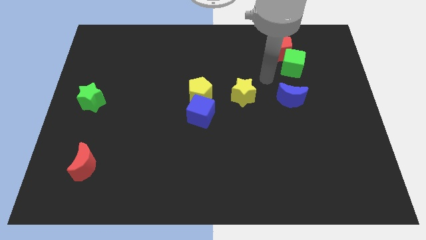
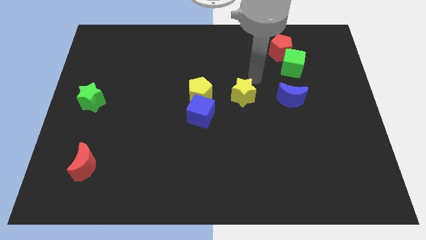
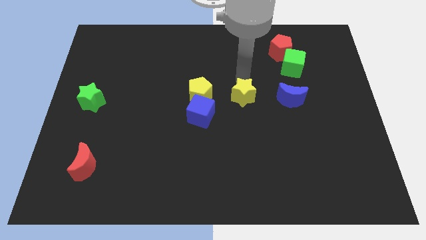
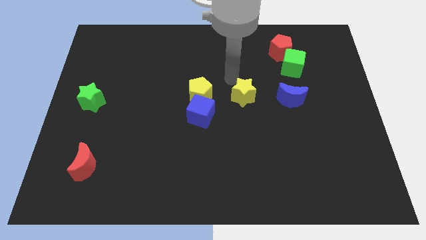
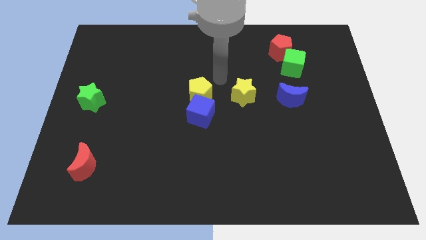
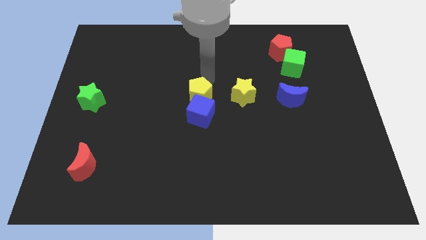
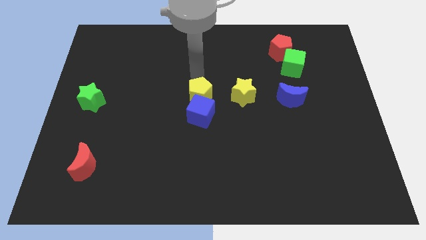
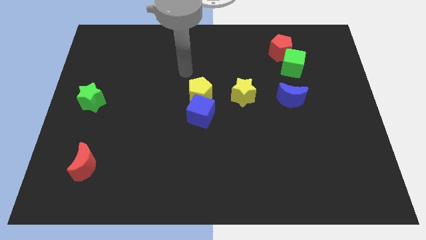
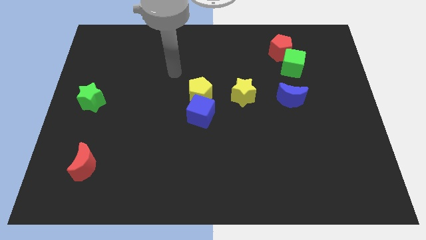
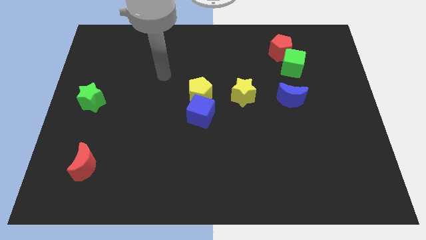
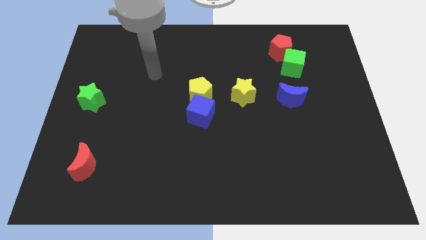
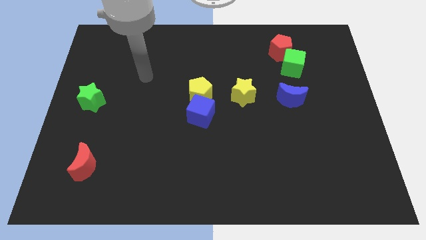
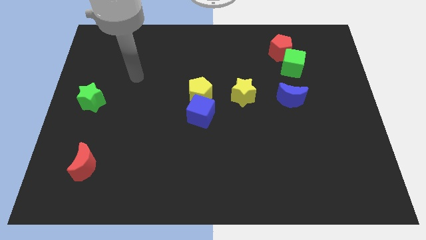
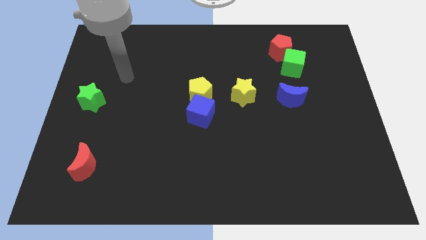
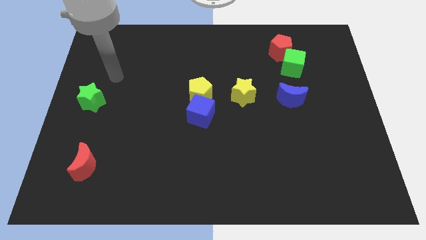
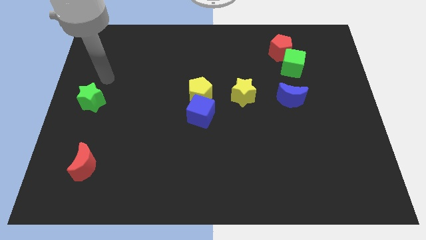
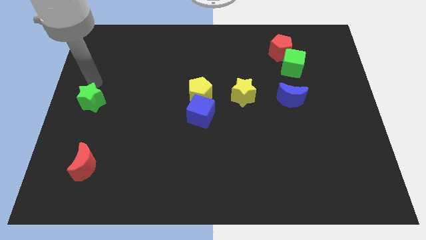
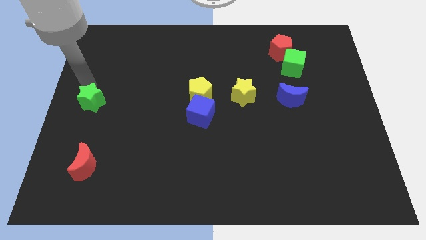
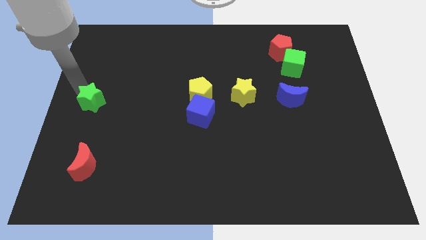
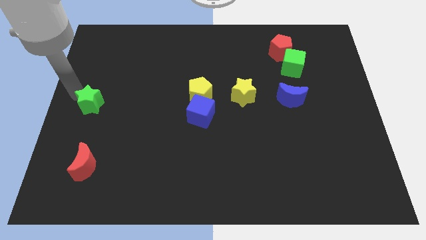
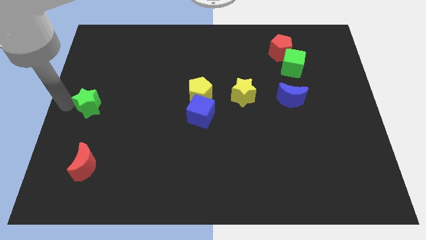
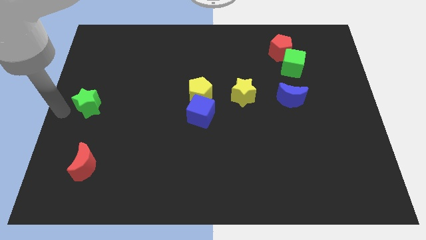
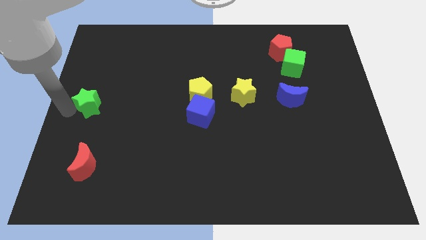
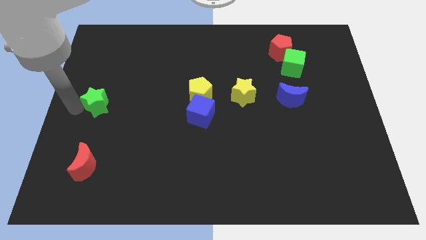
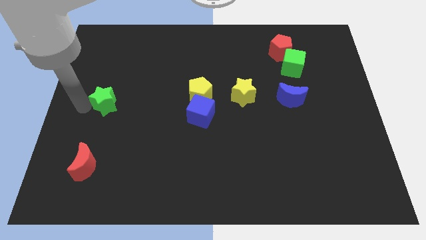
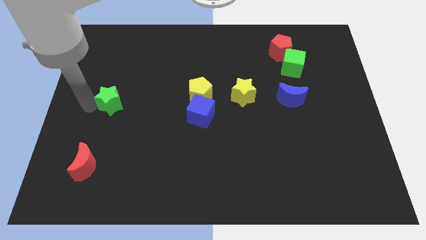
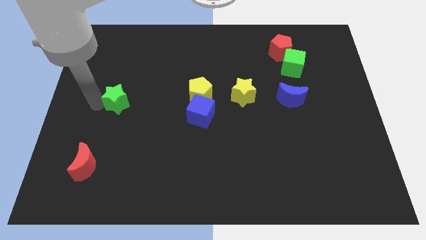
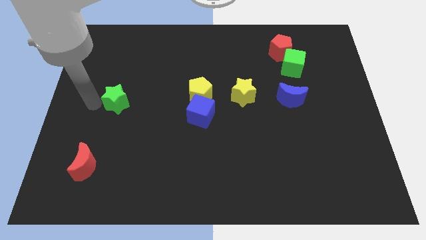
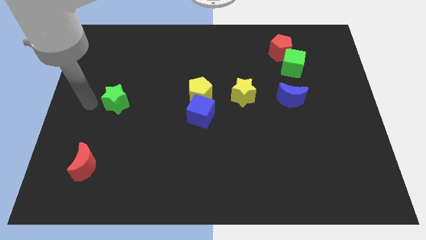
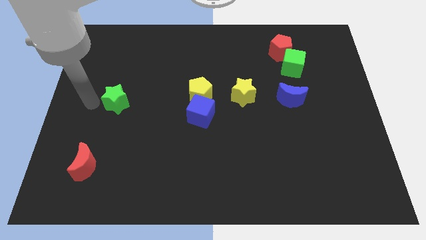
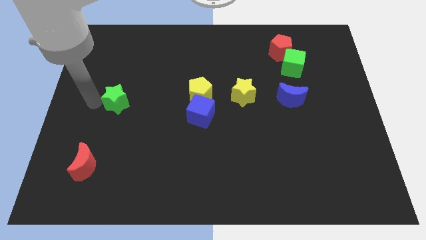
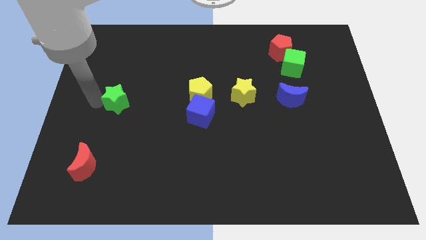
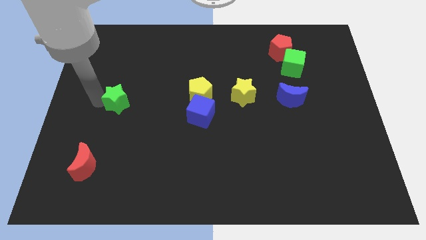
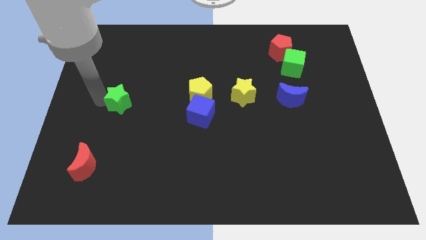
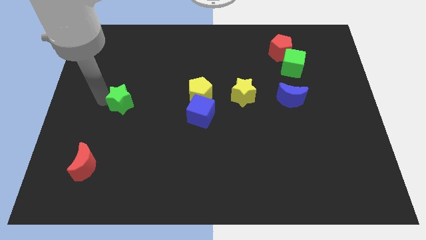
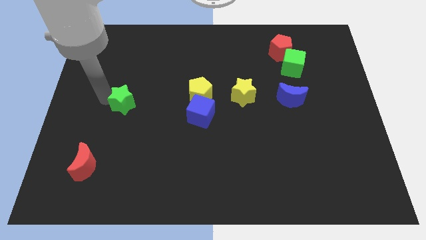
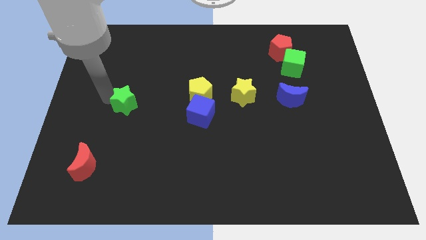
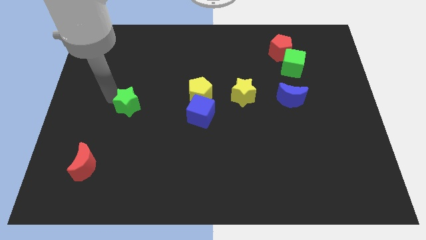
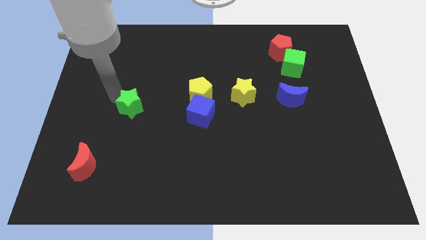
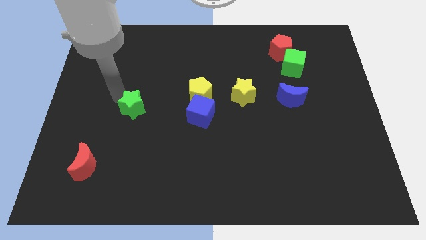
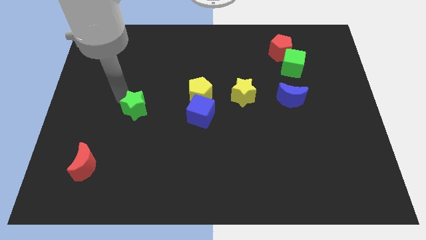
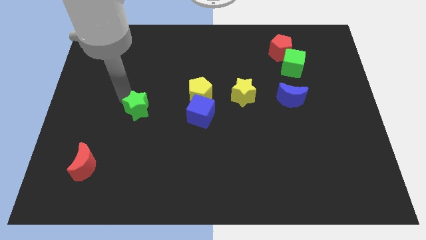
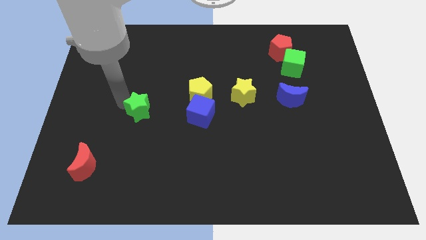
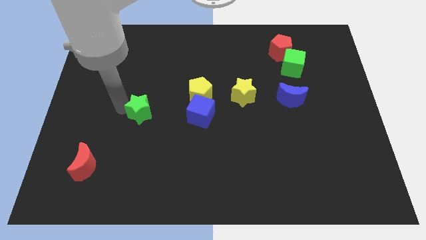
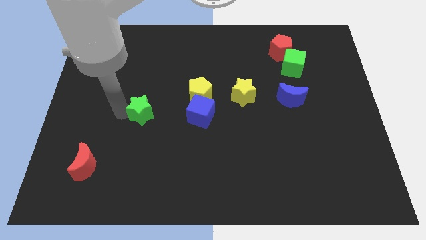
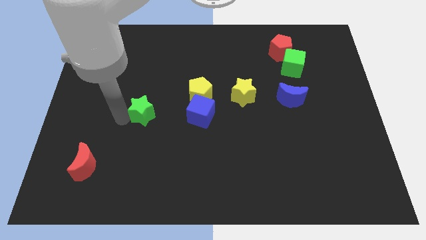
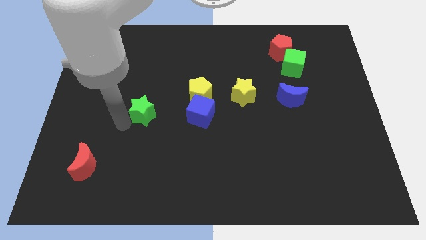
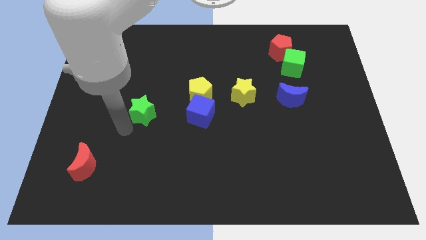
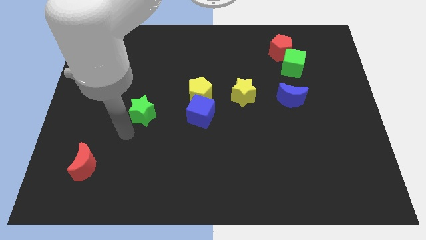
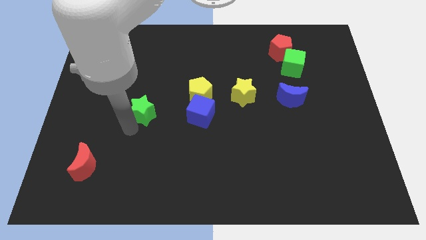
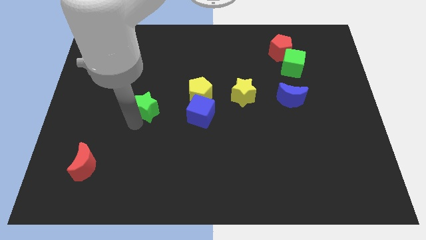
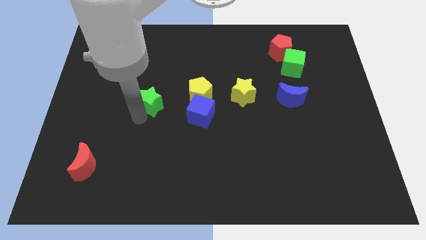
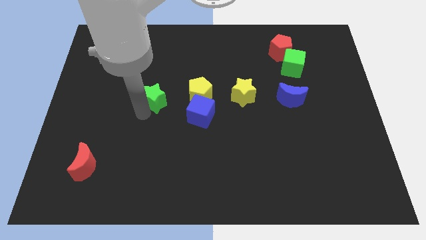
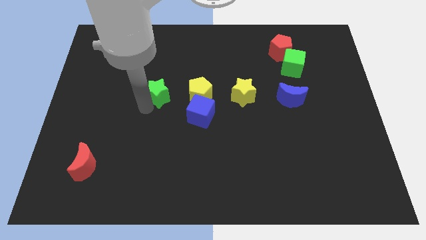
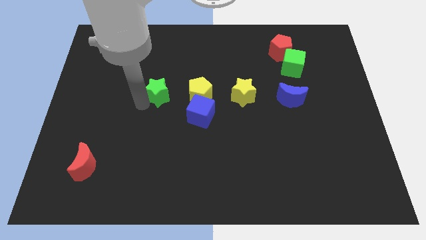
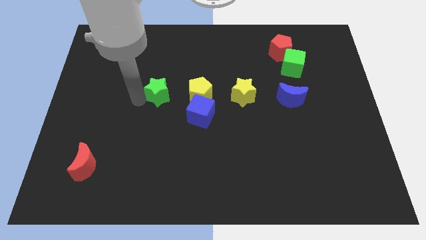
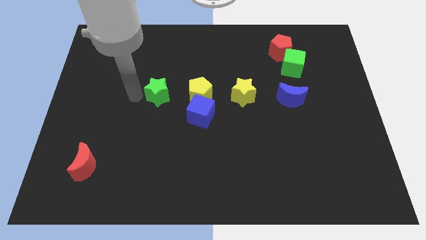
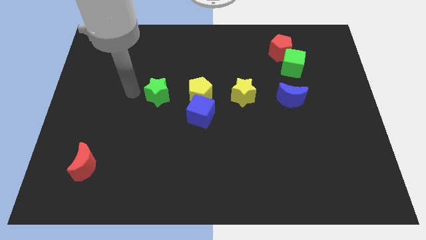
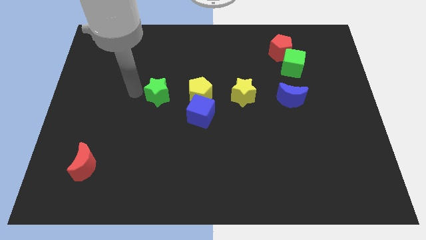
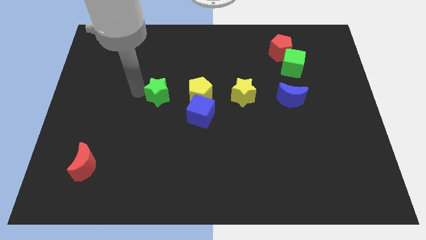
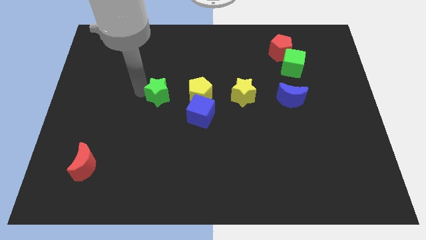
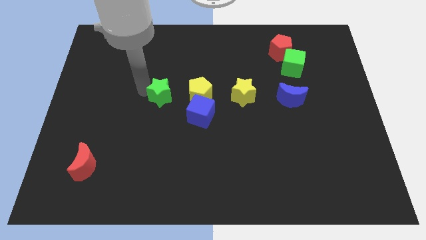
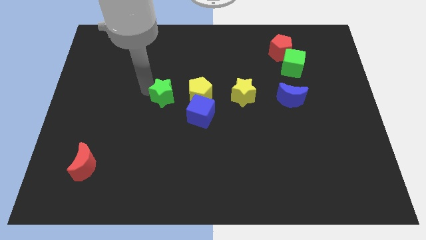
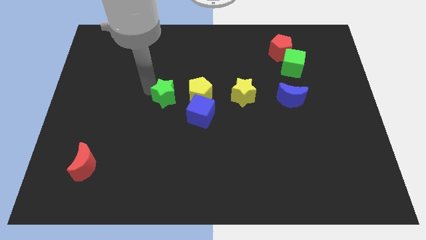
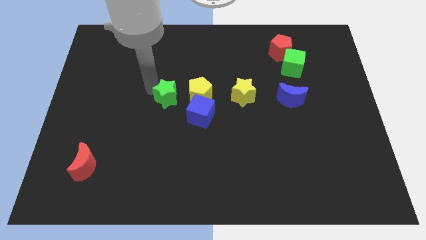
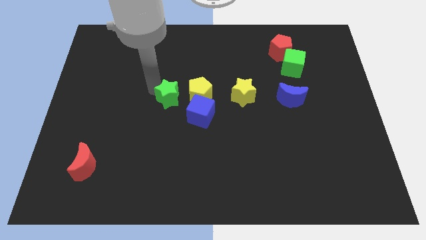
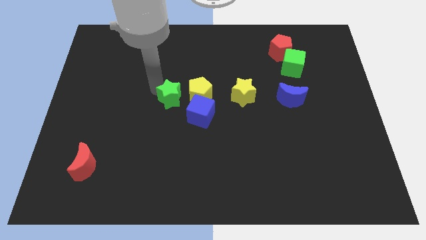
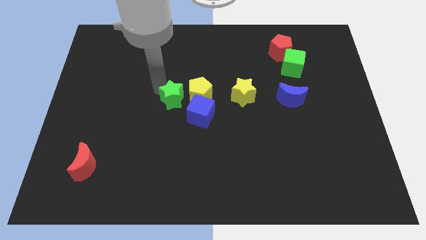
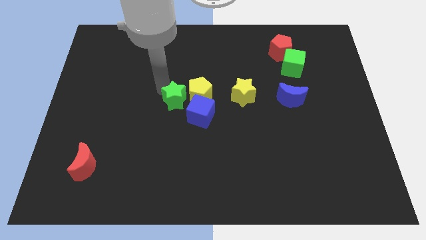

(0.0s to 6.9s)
put the green star to the left of the yellow star
